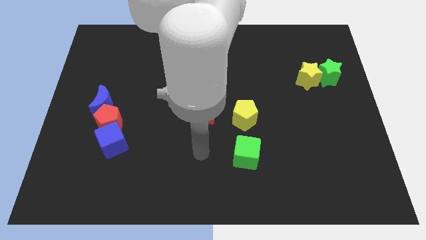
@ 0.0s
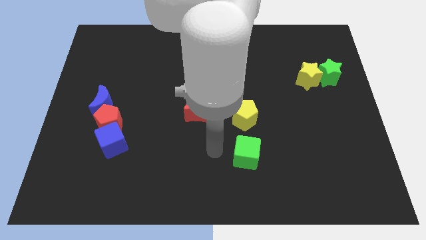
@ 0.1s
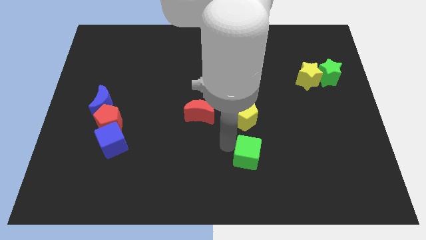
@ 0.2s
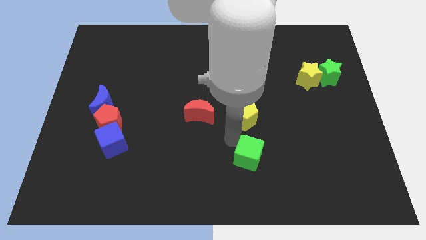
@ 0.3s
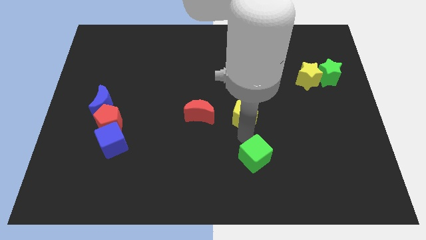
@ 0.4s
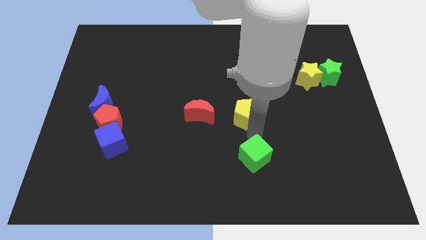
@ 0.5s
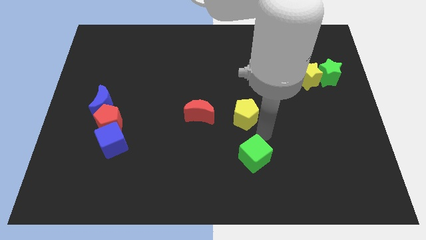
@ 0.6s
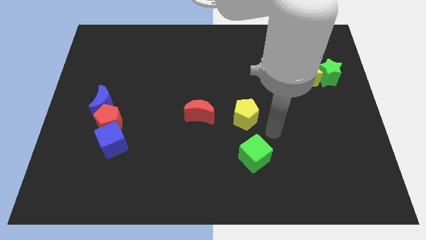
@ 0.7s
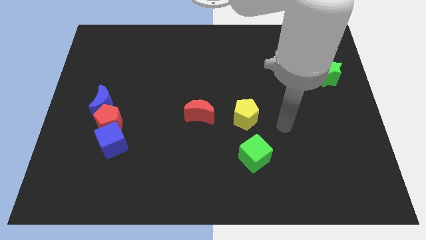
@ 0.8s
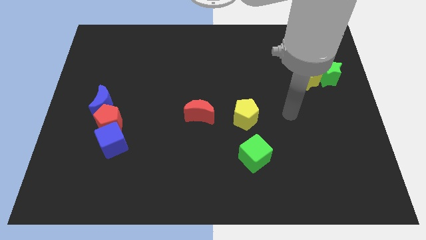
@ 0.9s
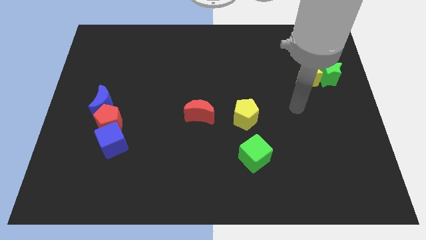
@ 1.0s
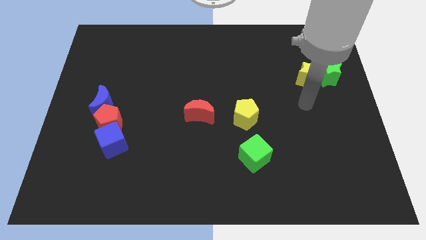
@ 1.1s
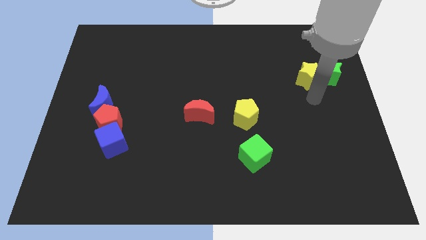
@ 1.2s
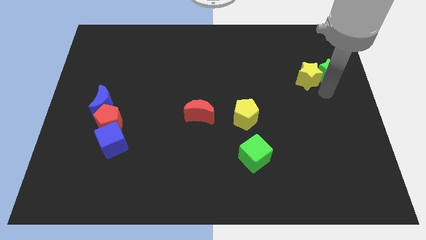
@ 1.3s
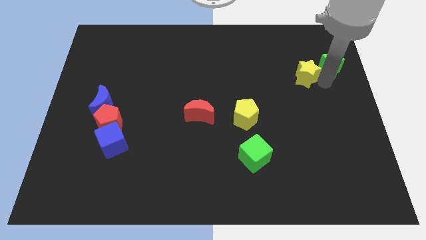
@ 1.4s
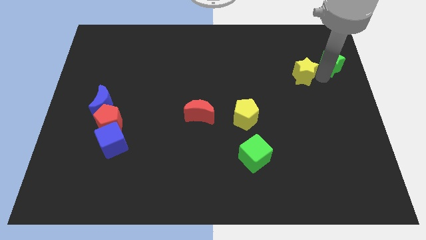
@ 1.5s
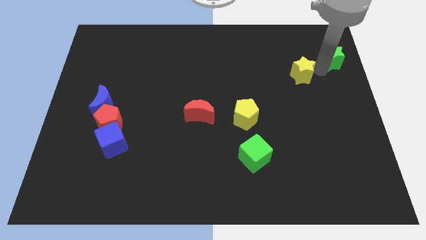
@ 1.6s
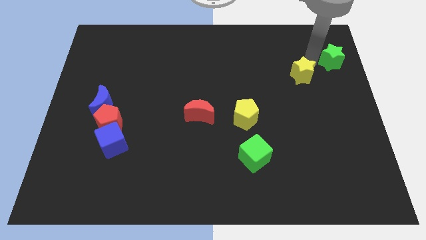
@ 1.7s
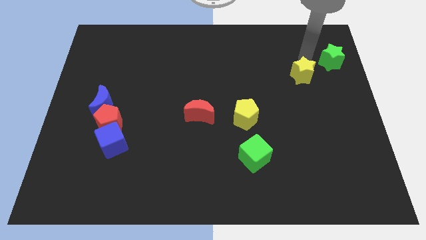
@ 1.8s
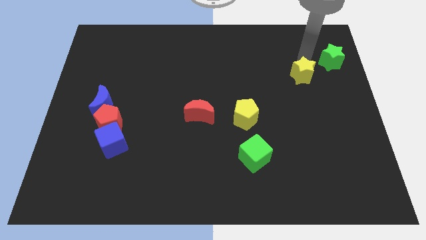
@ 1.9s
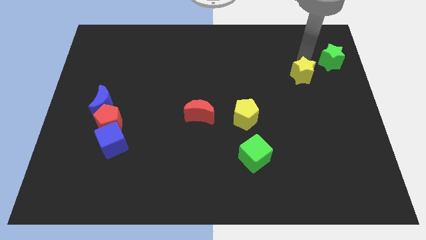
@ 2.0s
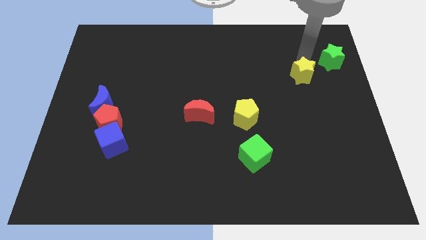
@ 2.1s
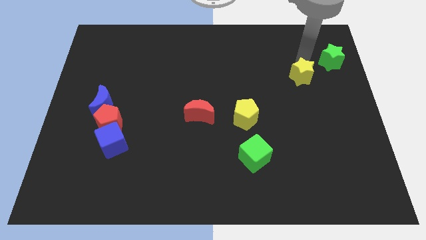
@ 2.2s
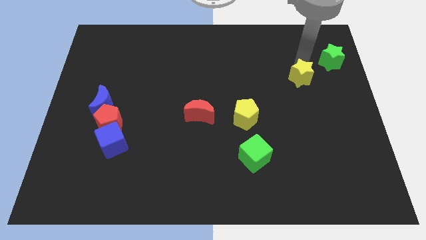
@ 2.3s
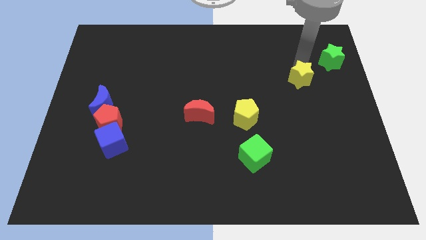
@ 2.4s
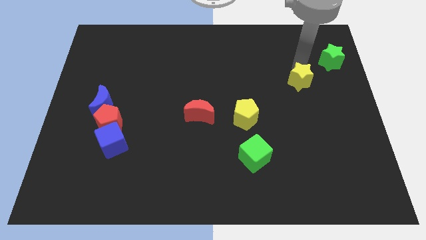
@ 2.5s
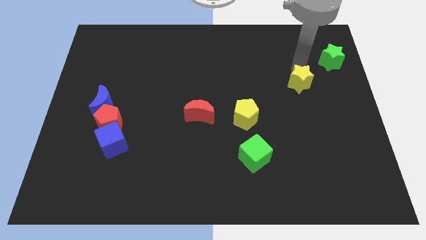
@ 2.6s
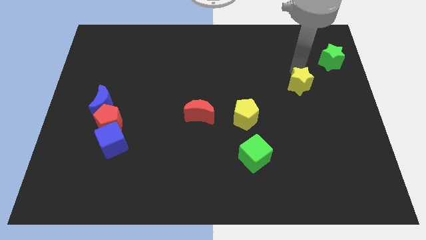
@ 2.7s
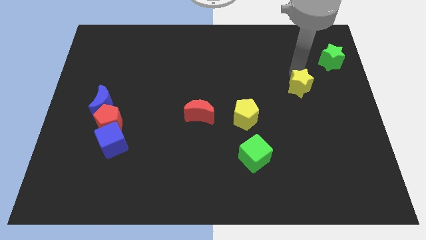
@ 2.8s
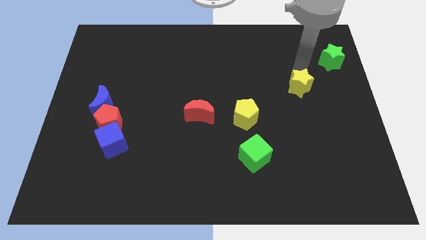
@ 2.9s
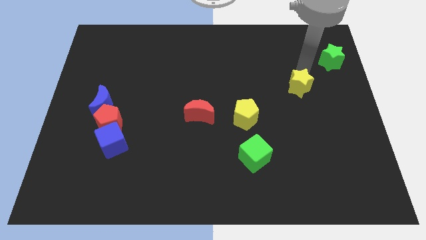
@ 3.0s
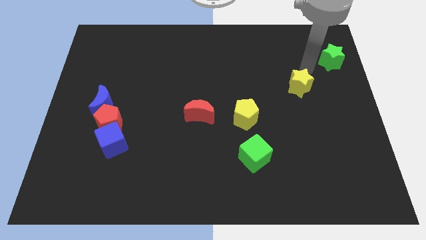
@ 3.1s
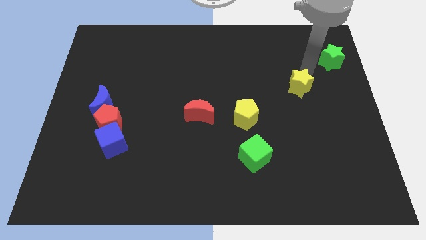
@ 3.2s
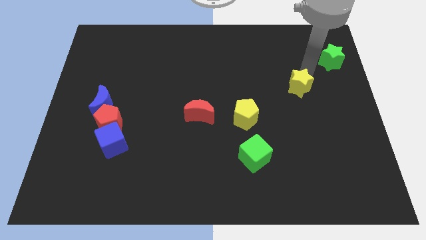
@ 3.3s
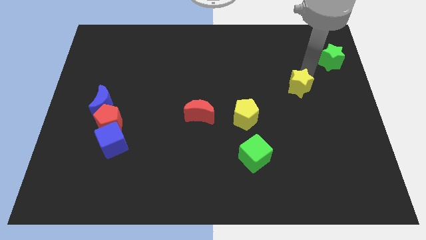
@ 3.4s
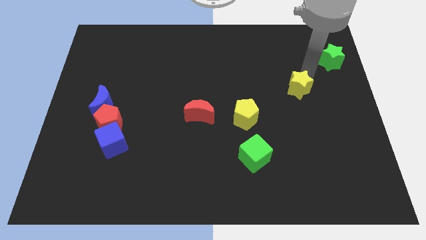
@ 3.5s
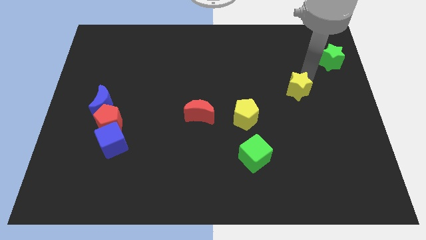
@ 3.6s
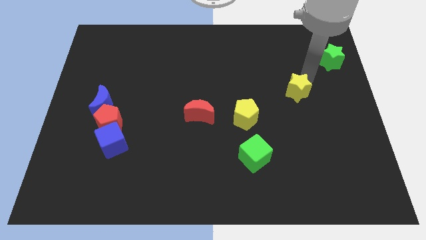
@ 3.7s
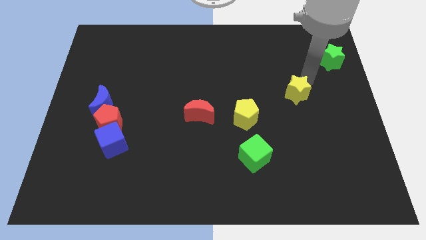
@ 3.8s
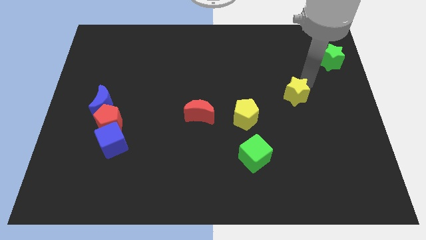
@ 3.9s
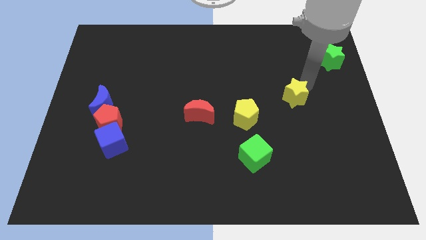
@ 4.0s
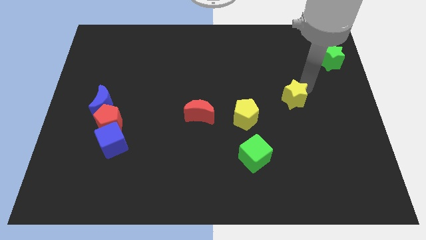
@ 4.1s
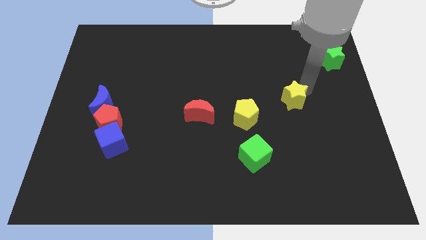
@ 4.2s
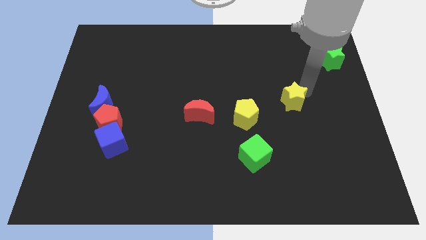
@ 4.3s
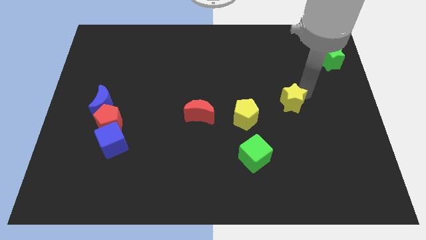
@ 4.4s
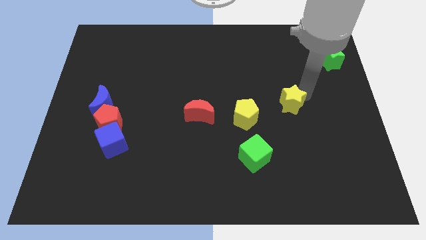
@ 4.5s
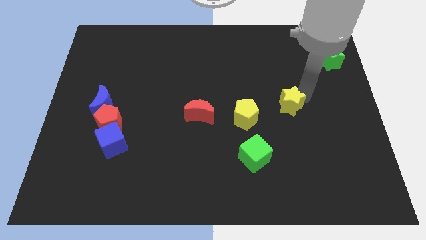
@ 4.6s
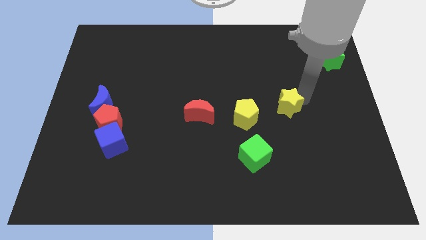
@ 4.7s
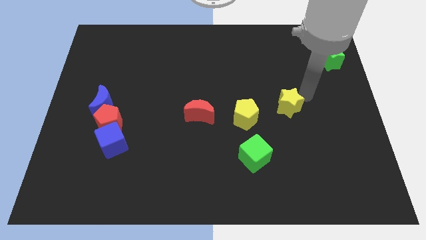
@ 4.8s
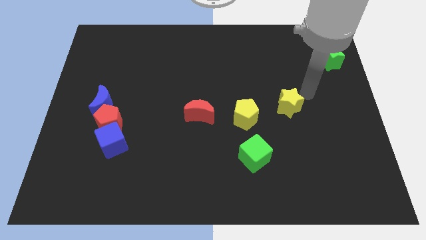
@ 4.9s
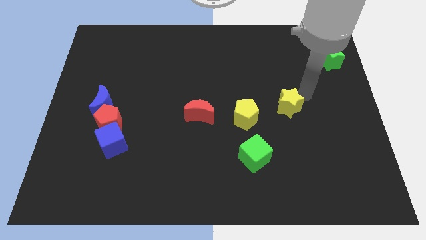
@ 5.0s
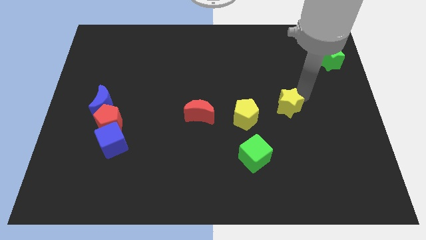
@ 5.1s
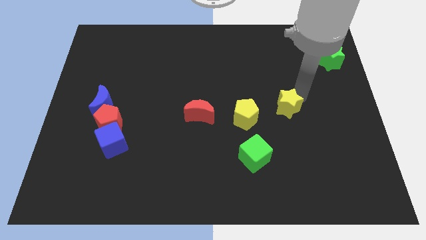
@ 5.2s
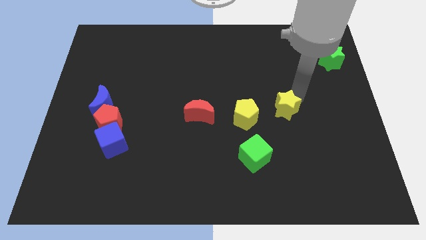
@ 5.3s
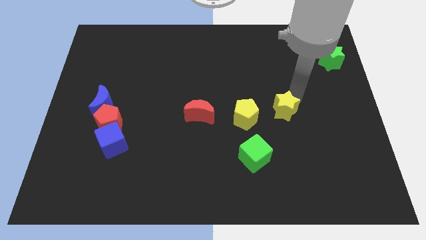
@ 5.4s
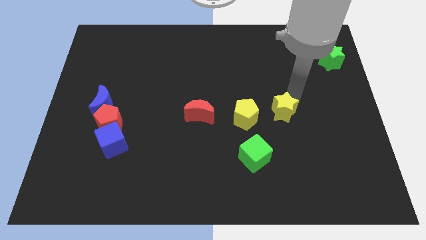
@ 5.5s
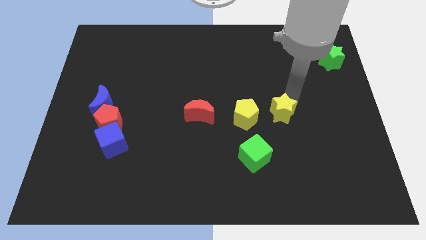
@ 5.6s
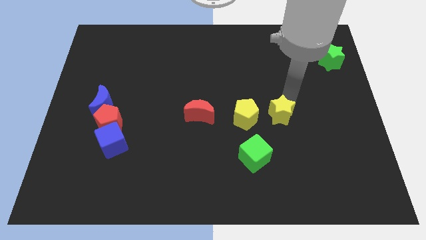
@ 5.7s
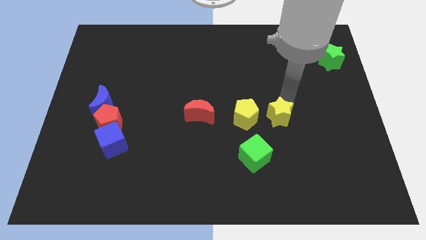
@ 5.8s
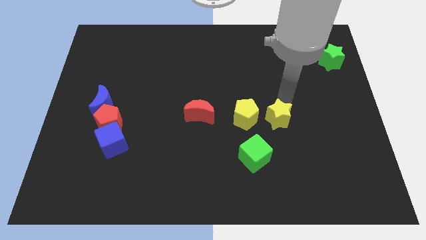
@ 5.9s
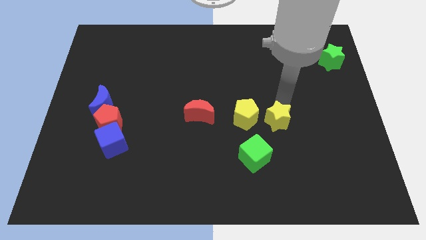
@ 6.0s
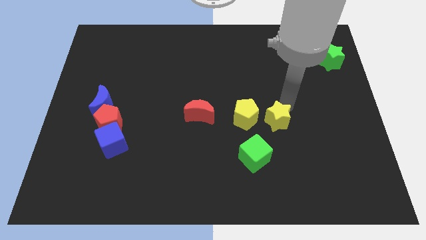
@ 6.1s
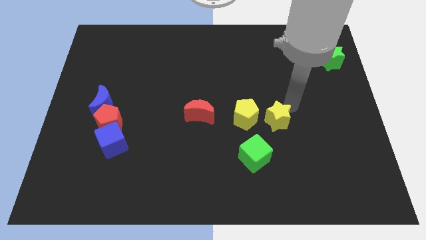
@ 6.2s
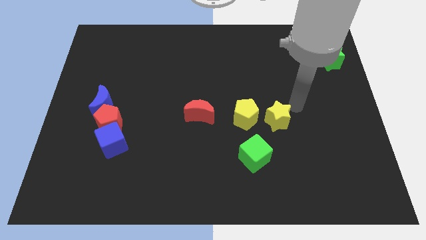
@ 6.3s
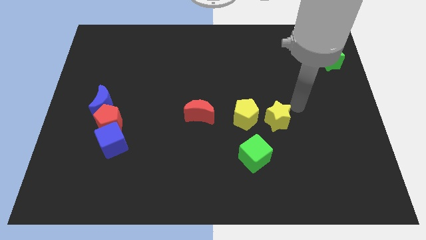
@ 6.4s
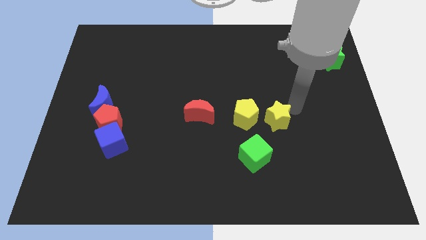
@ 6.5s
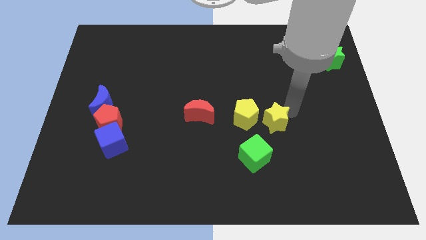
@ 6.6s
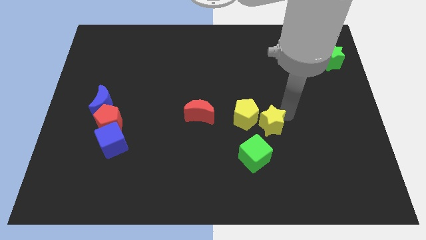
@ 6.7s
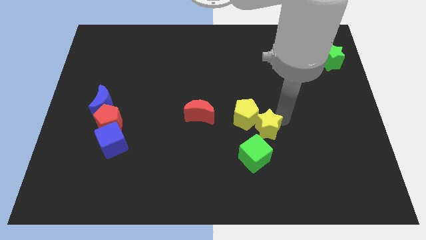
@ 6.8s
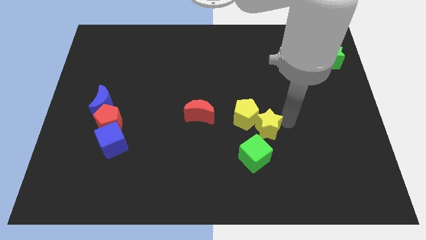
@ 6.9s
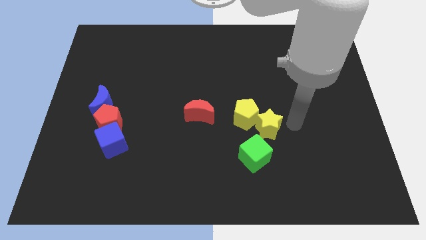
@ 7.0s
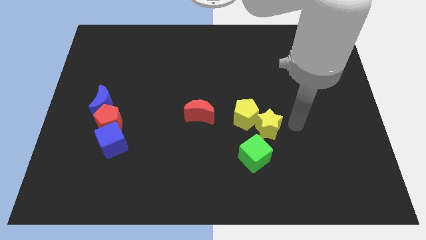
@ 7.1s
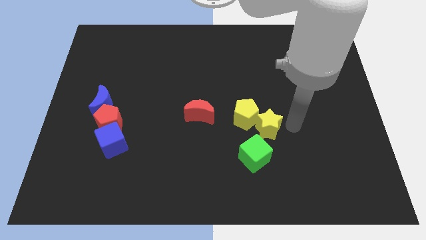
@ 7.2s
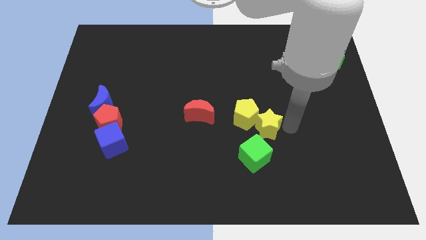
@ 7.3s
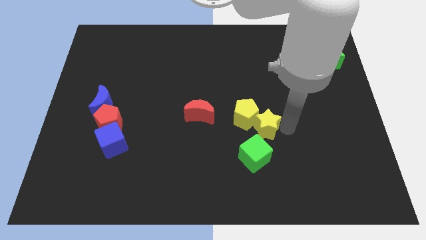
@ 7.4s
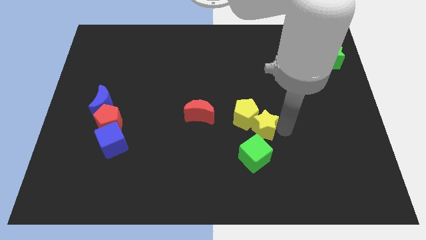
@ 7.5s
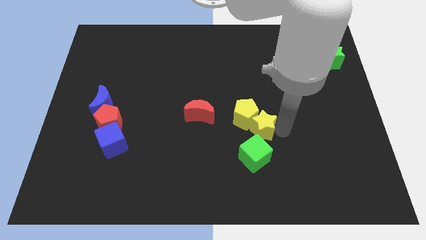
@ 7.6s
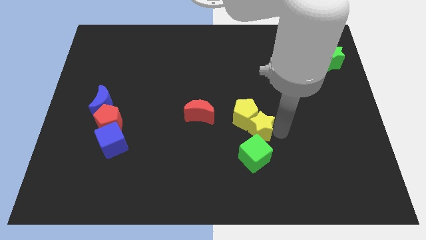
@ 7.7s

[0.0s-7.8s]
push the yellow star down and then left

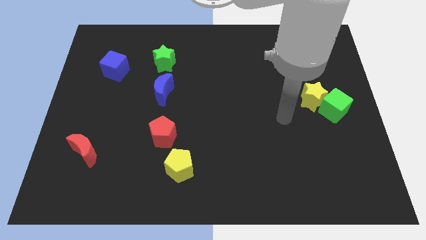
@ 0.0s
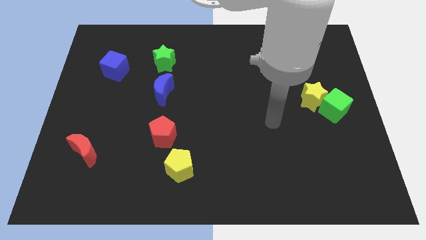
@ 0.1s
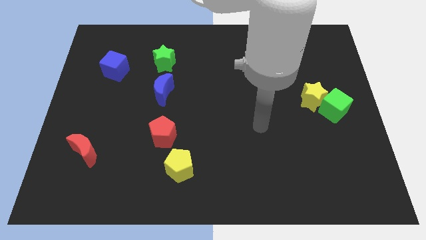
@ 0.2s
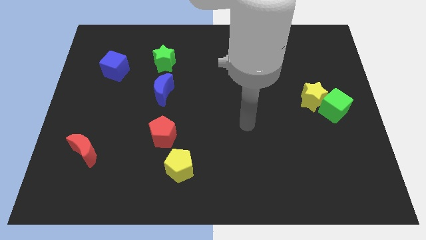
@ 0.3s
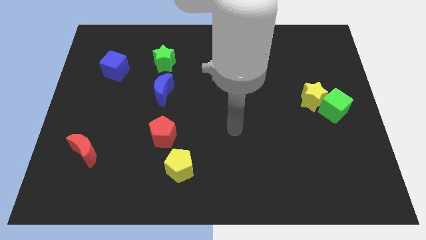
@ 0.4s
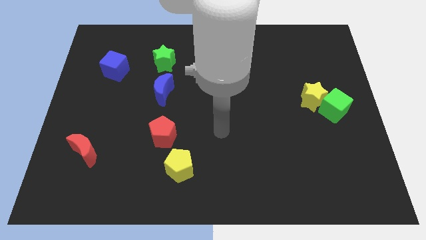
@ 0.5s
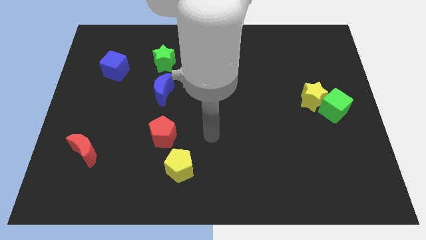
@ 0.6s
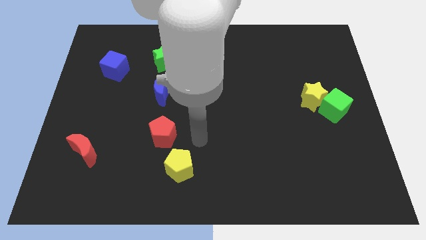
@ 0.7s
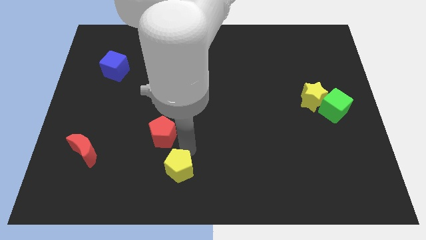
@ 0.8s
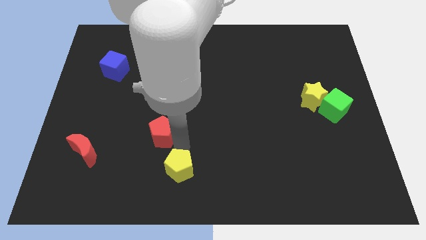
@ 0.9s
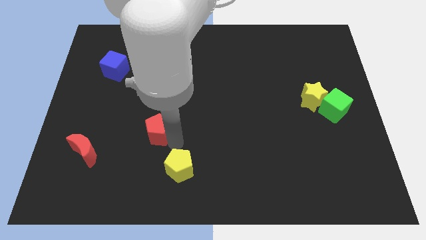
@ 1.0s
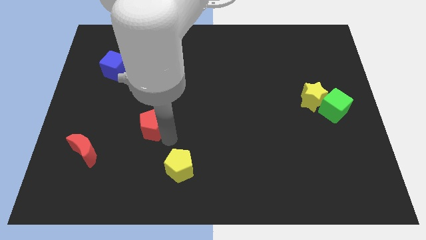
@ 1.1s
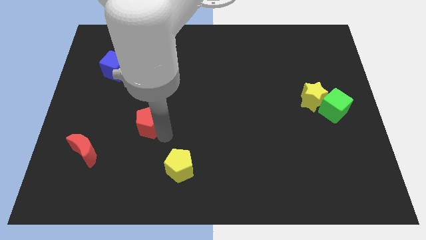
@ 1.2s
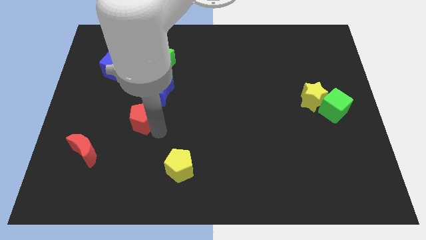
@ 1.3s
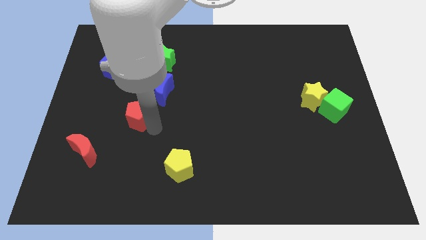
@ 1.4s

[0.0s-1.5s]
slightly push the red pentagon diagonally up and to the left
